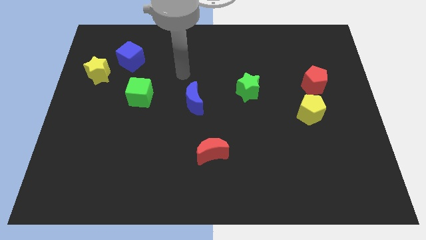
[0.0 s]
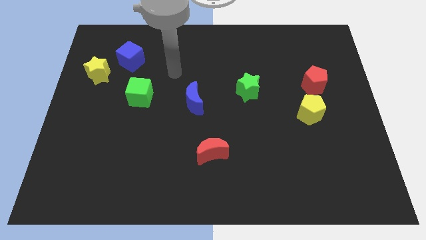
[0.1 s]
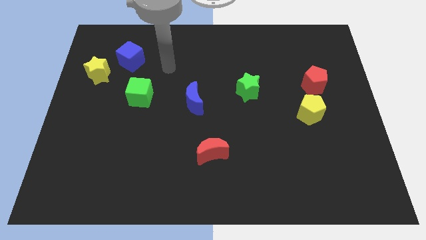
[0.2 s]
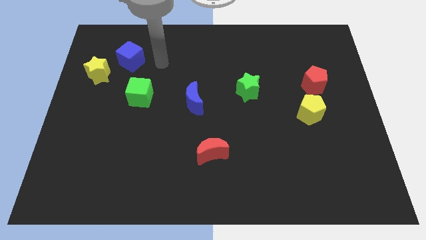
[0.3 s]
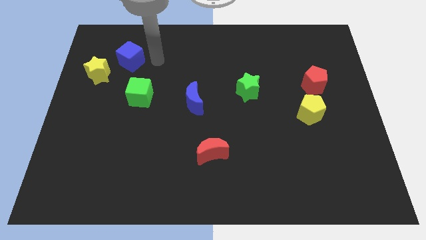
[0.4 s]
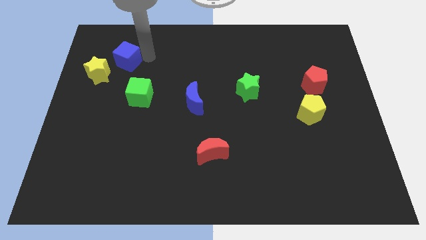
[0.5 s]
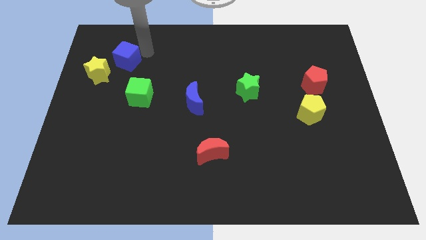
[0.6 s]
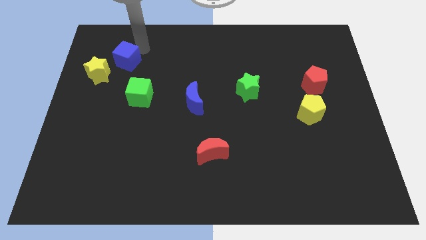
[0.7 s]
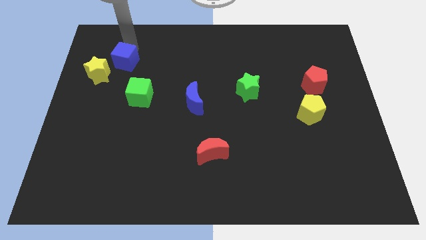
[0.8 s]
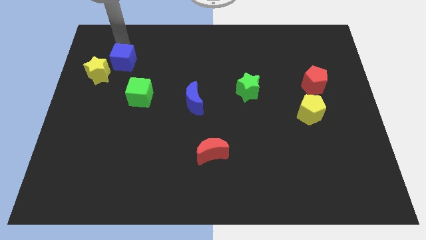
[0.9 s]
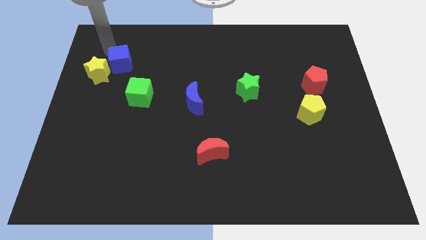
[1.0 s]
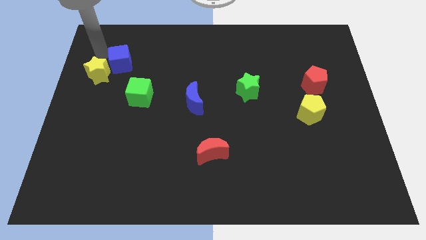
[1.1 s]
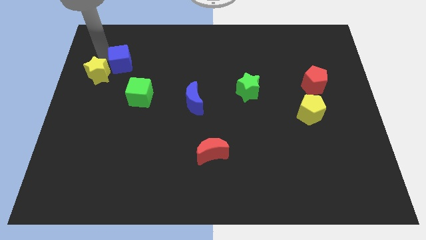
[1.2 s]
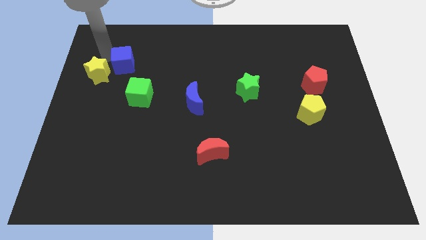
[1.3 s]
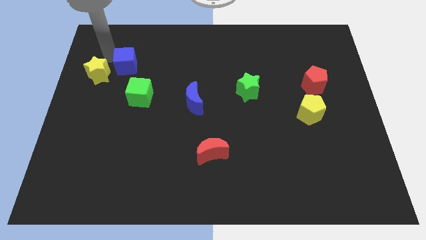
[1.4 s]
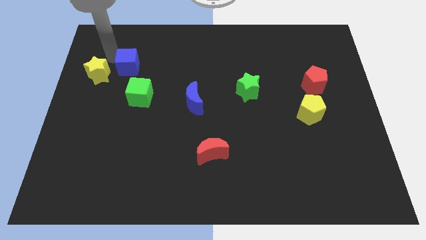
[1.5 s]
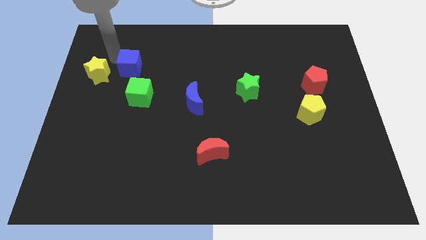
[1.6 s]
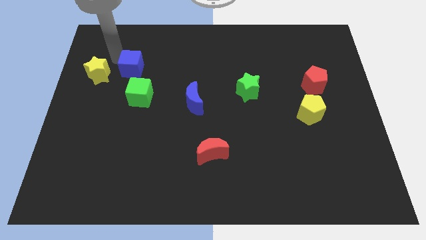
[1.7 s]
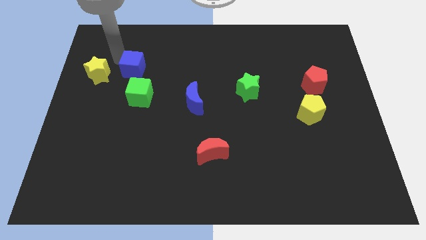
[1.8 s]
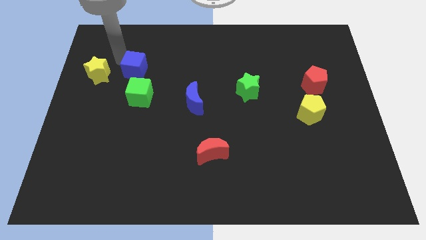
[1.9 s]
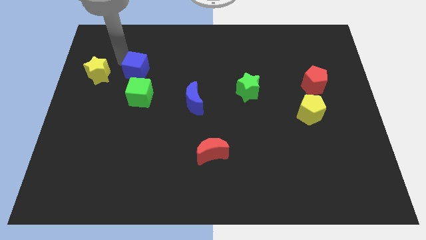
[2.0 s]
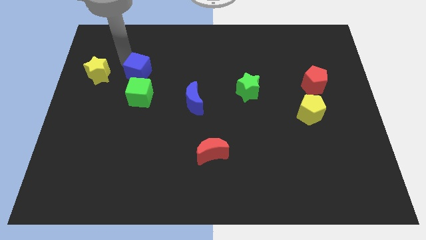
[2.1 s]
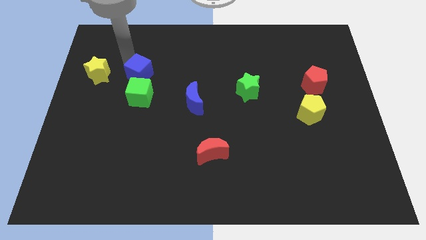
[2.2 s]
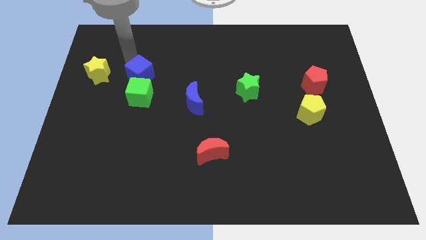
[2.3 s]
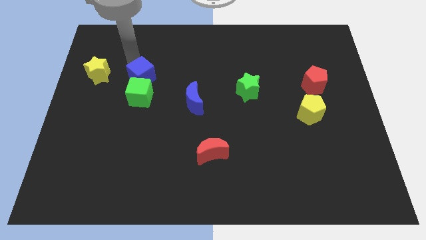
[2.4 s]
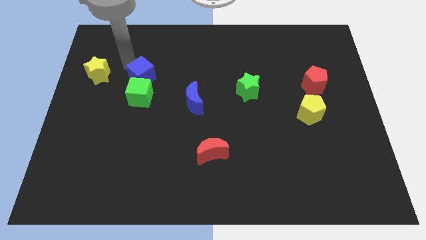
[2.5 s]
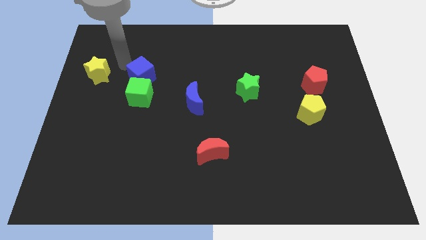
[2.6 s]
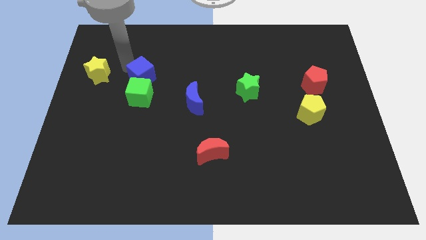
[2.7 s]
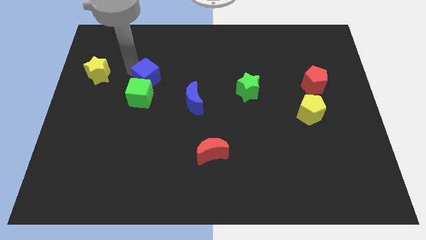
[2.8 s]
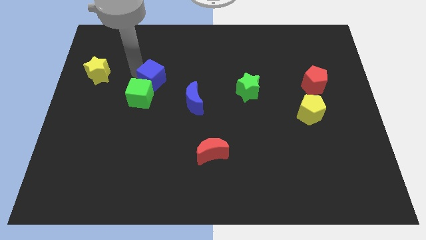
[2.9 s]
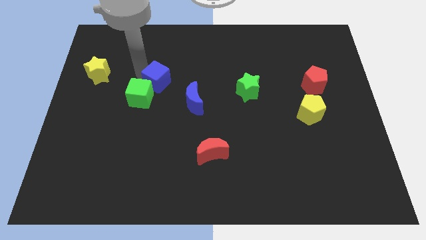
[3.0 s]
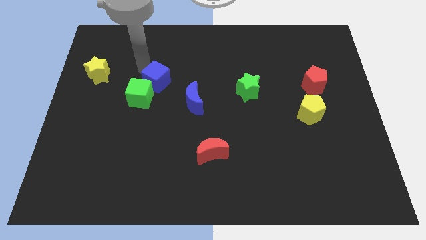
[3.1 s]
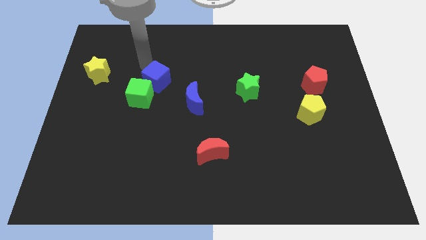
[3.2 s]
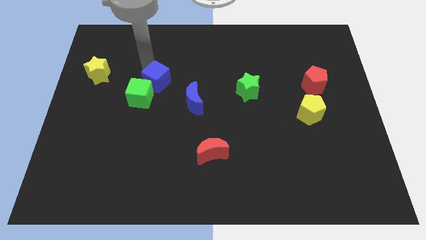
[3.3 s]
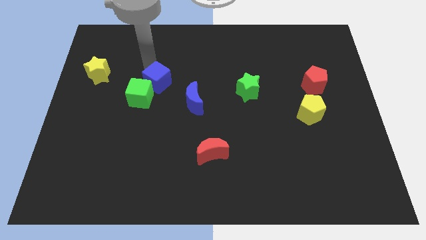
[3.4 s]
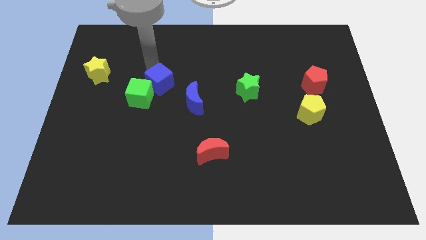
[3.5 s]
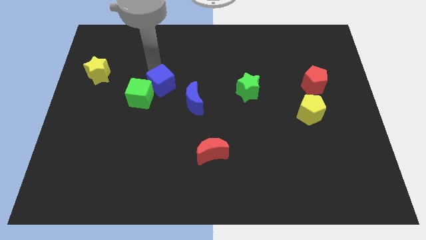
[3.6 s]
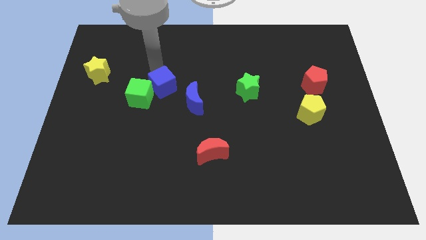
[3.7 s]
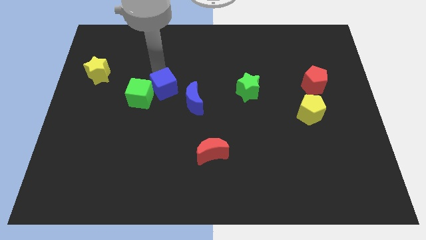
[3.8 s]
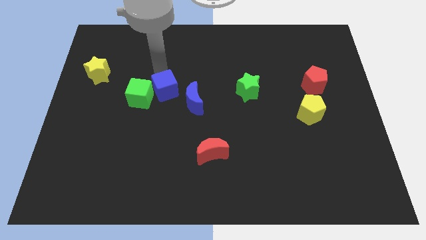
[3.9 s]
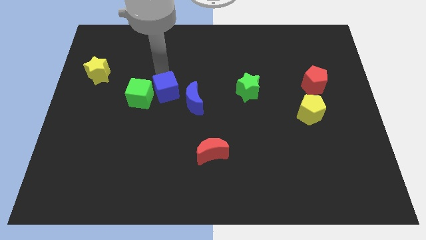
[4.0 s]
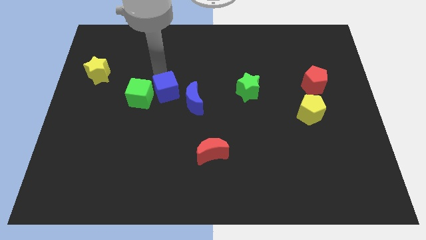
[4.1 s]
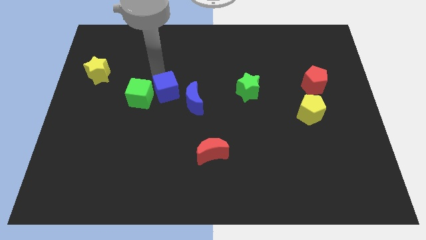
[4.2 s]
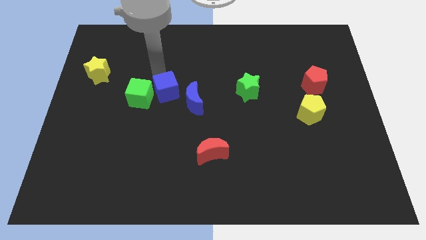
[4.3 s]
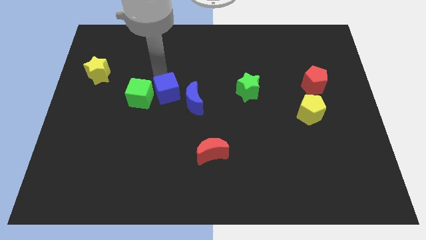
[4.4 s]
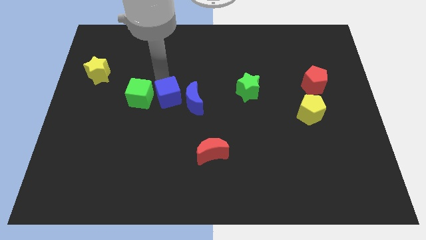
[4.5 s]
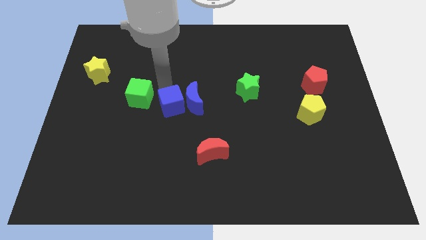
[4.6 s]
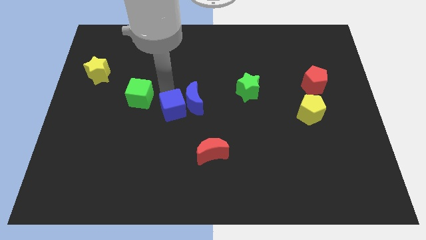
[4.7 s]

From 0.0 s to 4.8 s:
move the blue cube diagonally down and right

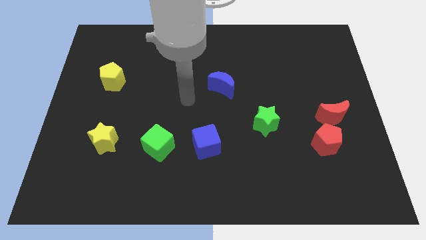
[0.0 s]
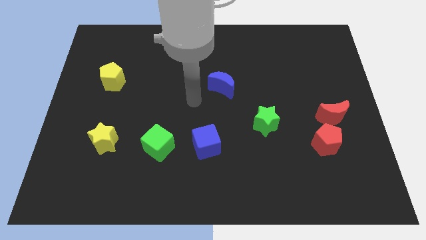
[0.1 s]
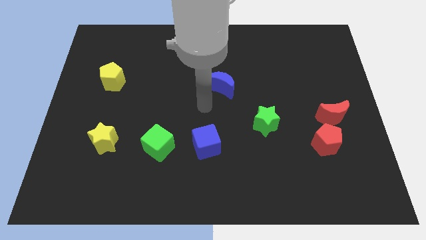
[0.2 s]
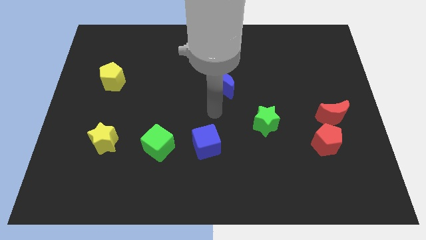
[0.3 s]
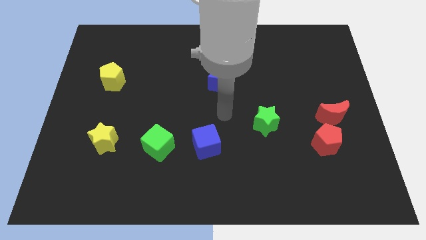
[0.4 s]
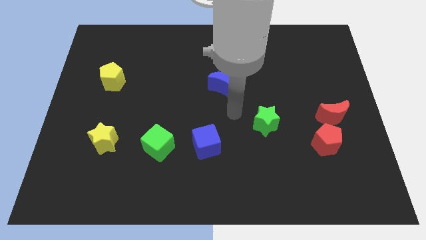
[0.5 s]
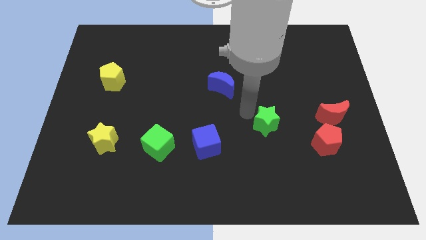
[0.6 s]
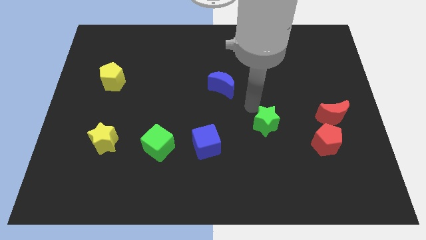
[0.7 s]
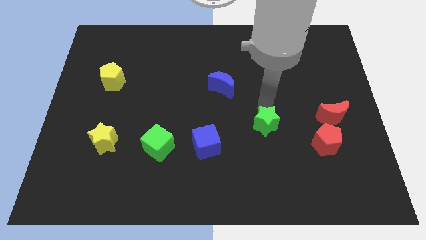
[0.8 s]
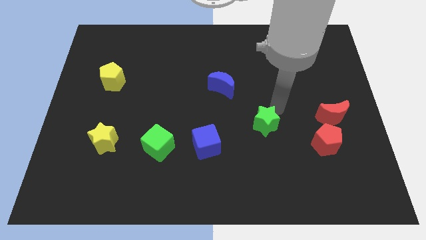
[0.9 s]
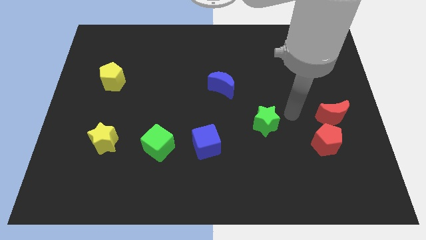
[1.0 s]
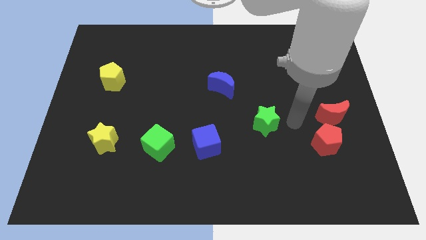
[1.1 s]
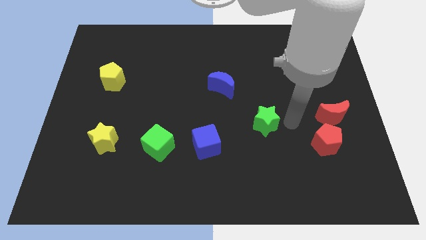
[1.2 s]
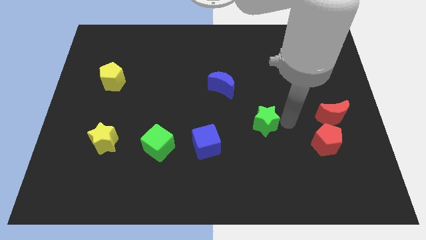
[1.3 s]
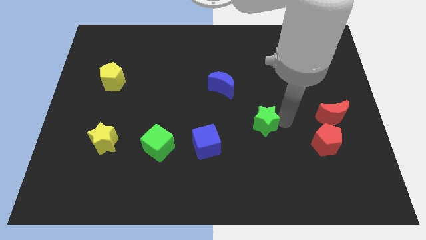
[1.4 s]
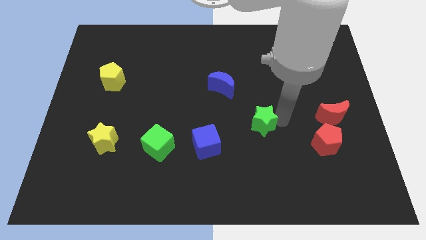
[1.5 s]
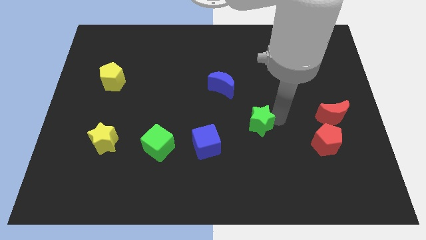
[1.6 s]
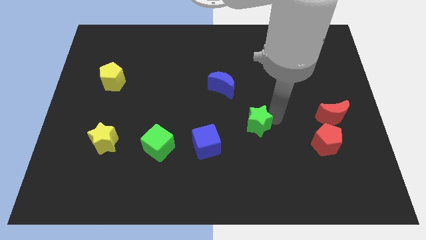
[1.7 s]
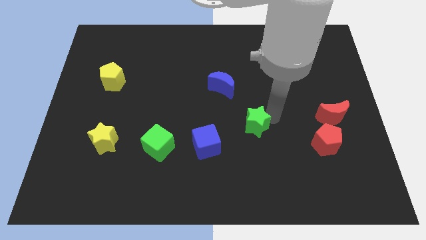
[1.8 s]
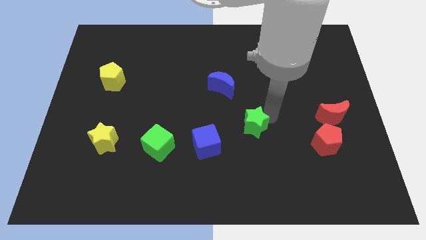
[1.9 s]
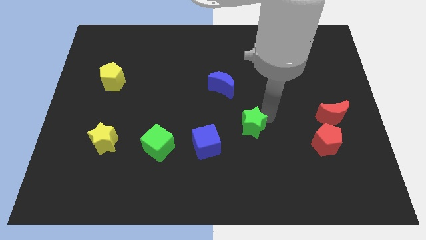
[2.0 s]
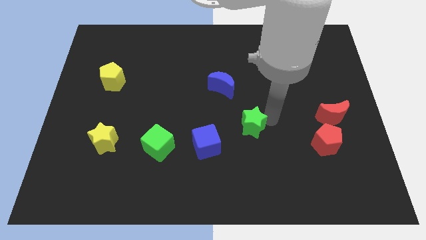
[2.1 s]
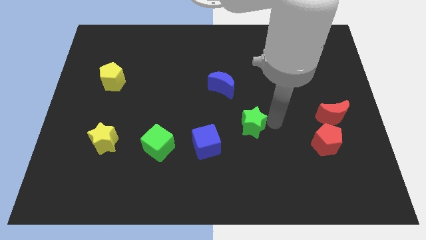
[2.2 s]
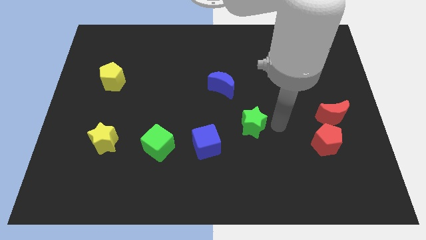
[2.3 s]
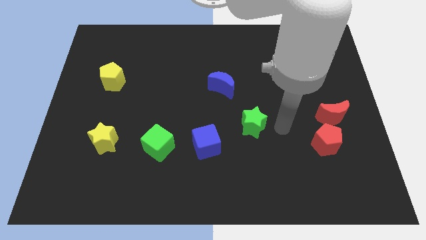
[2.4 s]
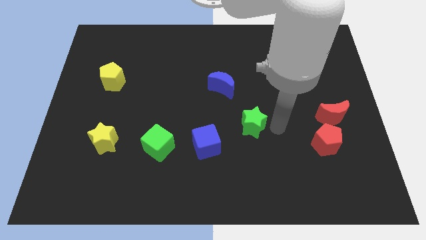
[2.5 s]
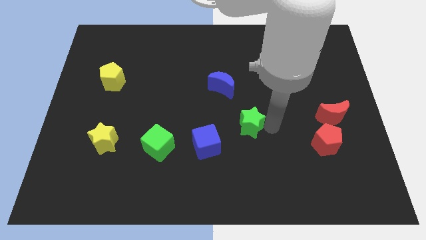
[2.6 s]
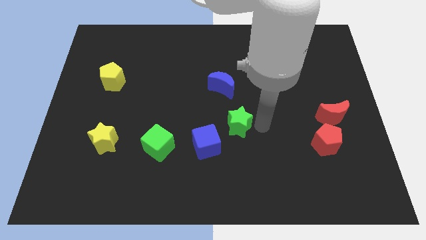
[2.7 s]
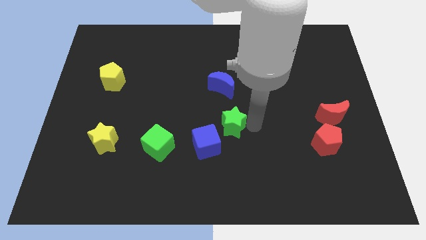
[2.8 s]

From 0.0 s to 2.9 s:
slightly move the green star to the left

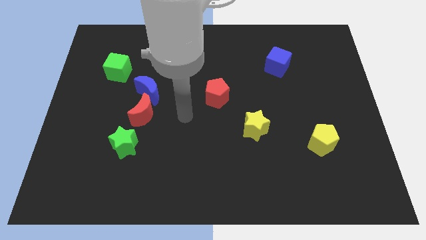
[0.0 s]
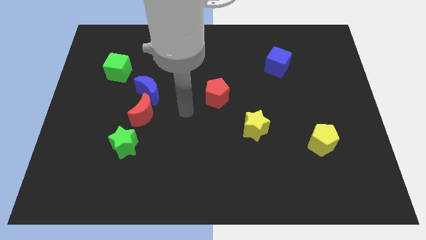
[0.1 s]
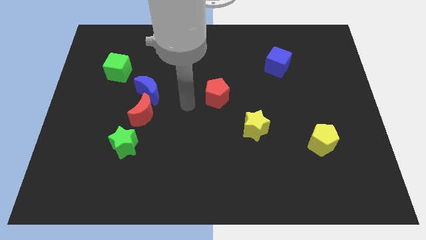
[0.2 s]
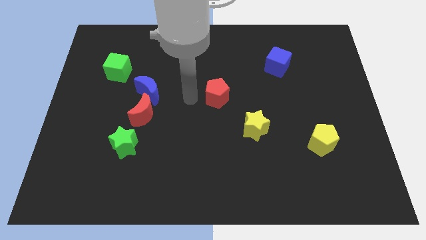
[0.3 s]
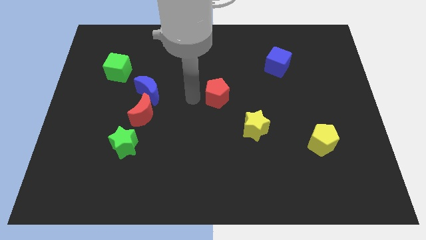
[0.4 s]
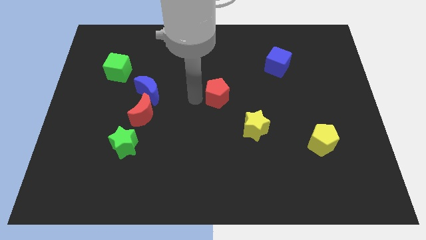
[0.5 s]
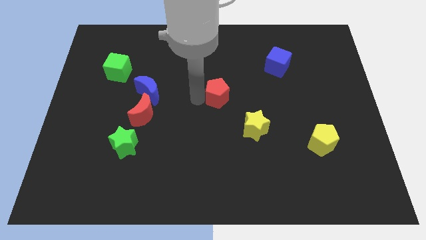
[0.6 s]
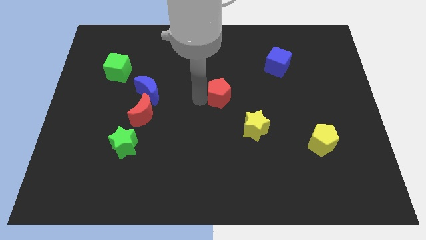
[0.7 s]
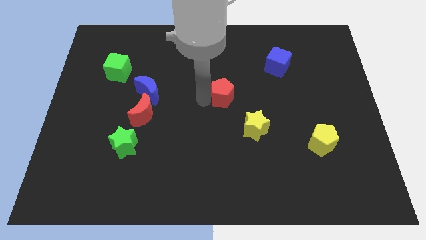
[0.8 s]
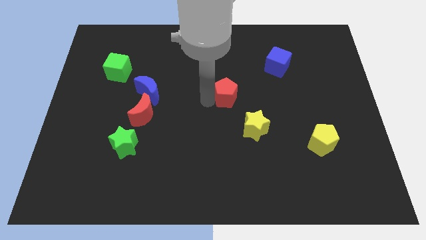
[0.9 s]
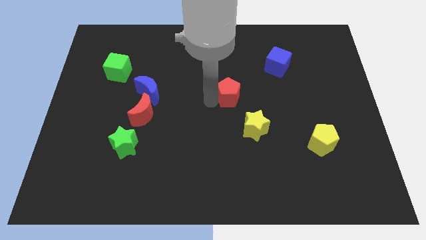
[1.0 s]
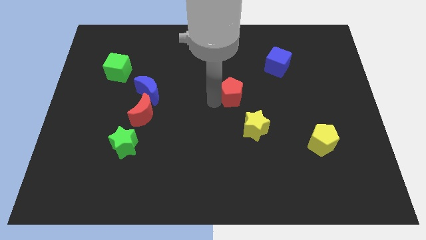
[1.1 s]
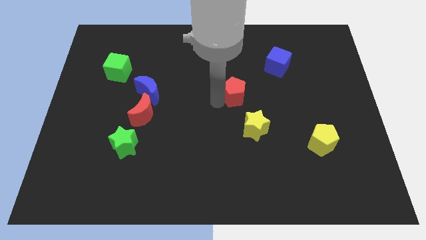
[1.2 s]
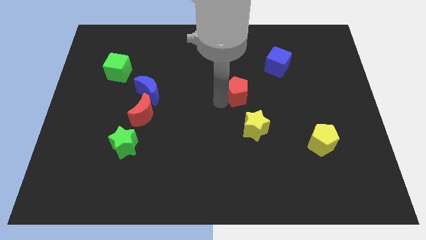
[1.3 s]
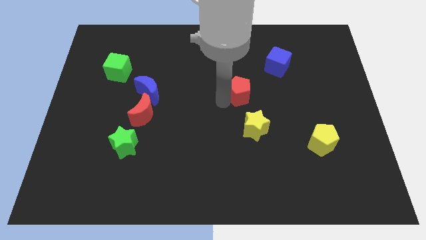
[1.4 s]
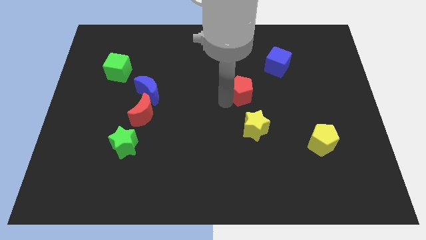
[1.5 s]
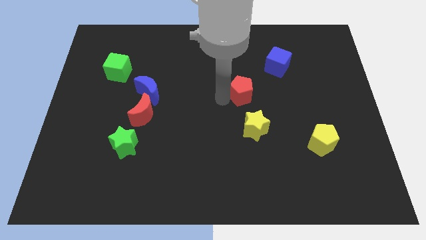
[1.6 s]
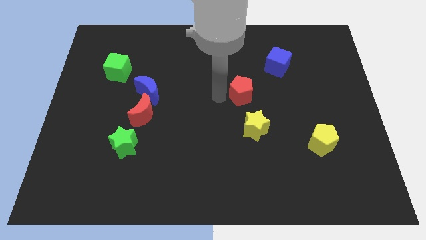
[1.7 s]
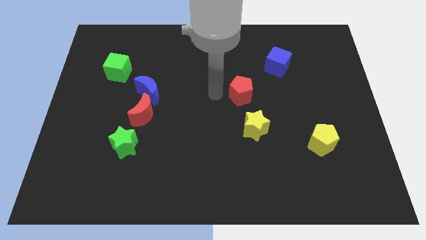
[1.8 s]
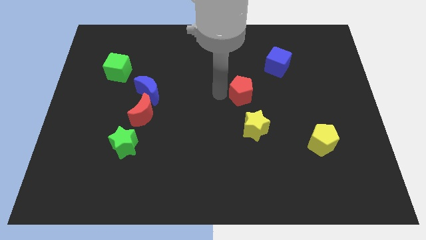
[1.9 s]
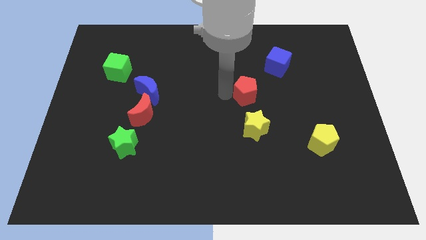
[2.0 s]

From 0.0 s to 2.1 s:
push the red pentagon to the right a little bit
